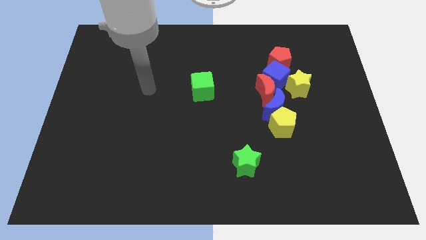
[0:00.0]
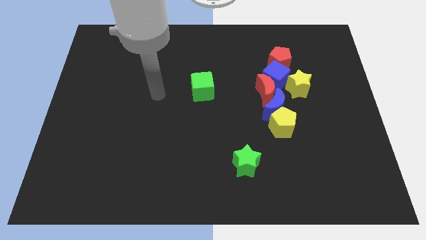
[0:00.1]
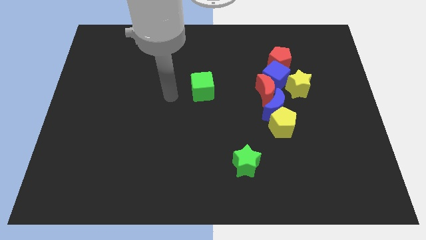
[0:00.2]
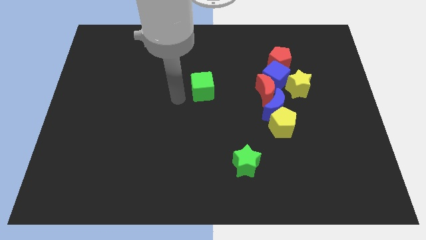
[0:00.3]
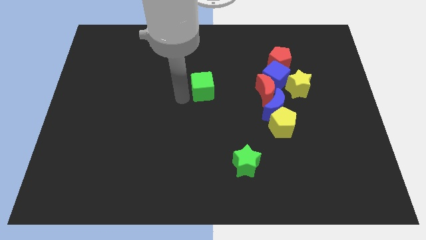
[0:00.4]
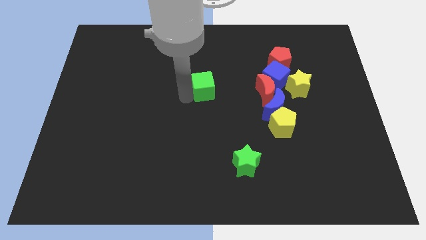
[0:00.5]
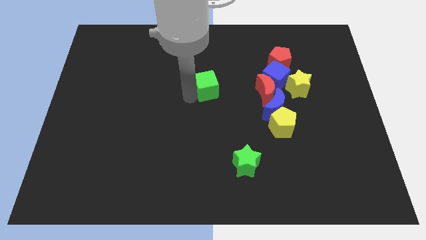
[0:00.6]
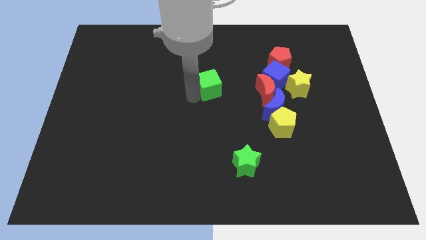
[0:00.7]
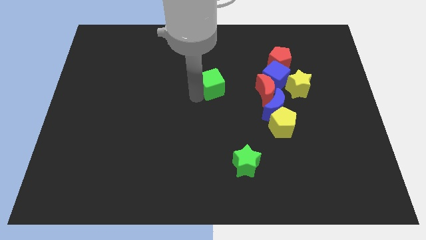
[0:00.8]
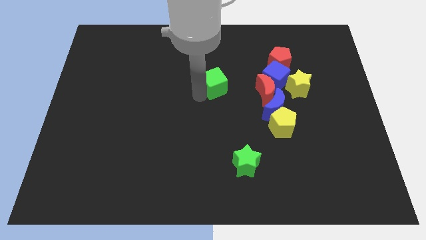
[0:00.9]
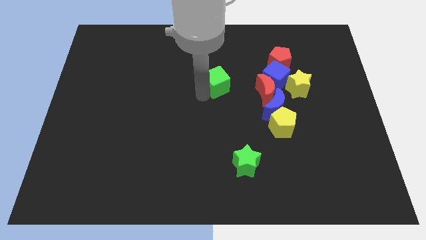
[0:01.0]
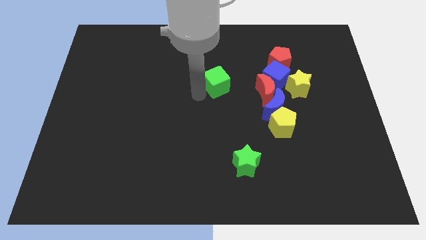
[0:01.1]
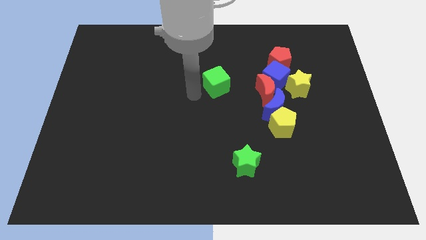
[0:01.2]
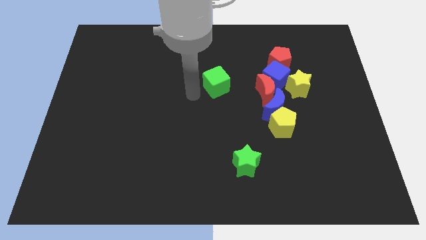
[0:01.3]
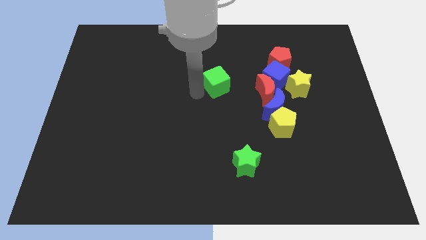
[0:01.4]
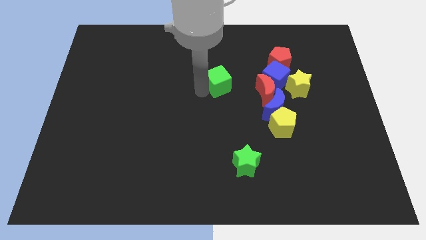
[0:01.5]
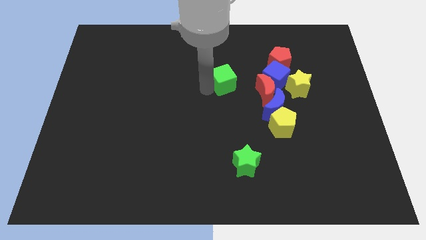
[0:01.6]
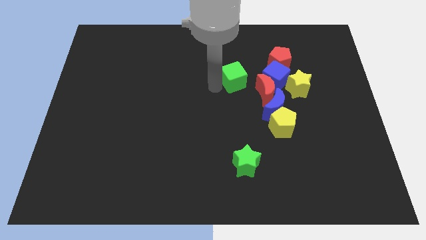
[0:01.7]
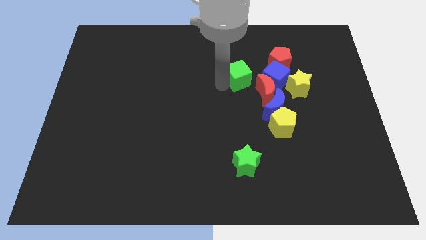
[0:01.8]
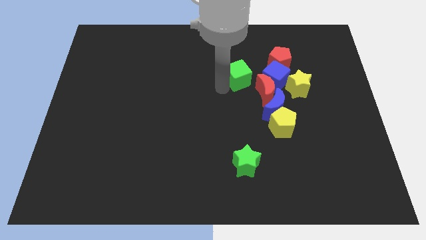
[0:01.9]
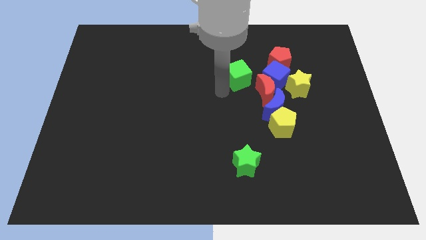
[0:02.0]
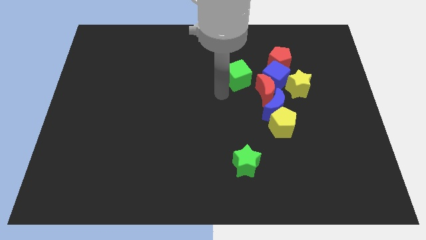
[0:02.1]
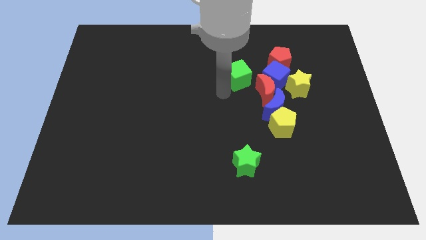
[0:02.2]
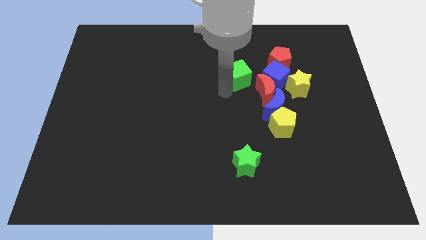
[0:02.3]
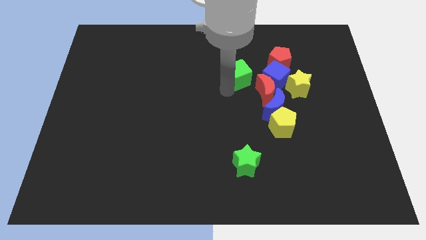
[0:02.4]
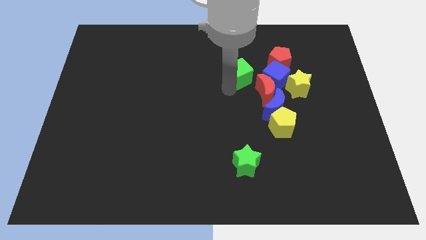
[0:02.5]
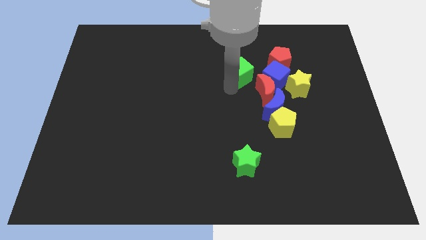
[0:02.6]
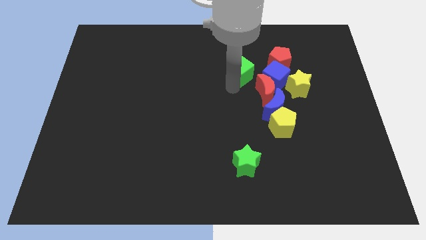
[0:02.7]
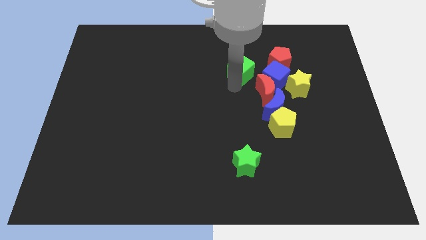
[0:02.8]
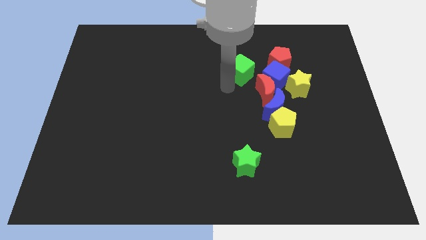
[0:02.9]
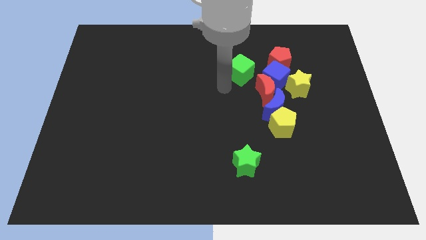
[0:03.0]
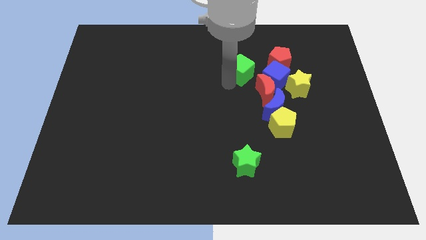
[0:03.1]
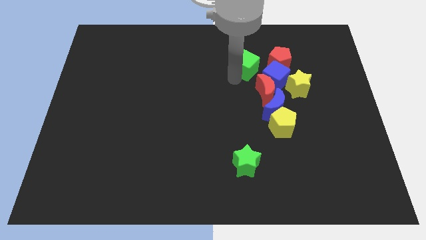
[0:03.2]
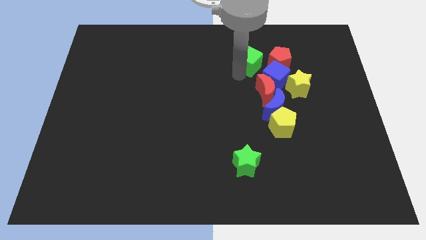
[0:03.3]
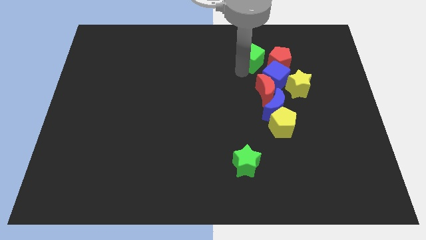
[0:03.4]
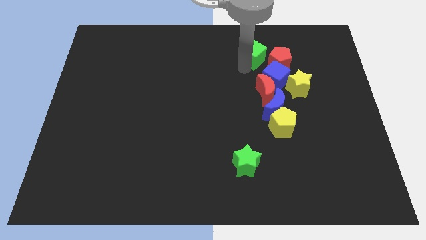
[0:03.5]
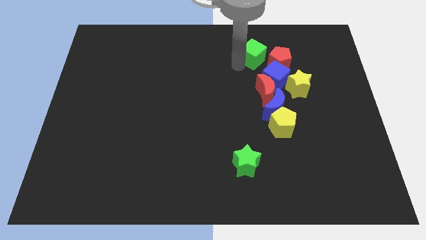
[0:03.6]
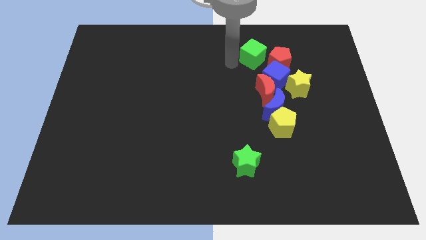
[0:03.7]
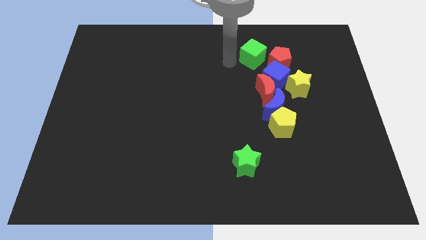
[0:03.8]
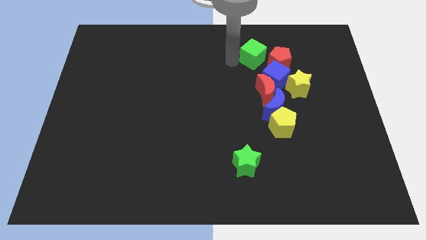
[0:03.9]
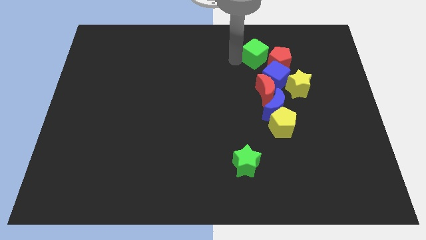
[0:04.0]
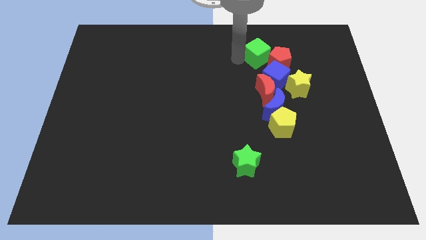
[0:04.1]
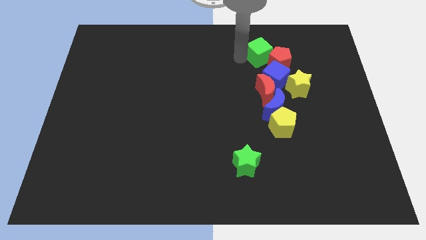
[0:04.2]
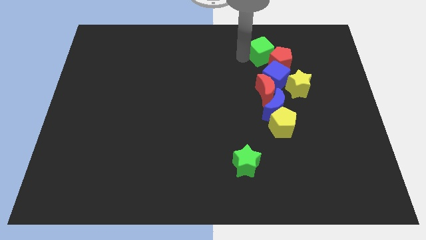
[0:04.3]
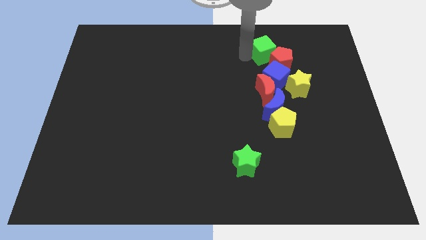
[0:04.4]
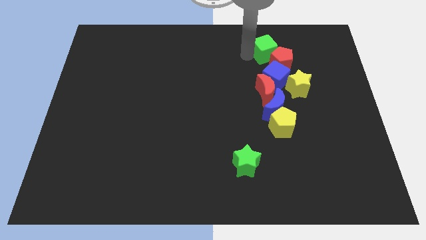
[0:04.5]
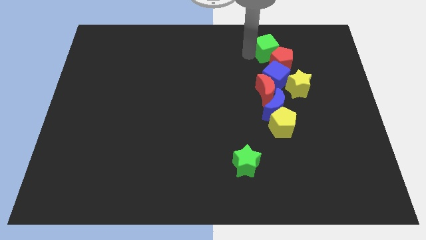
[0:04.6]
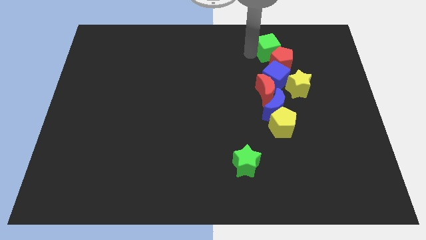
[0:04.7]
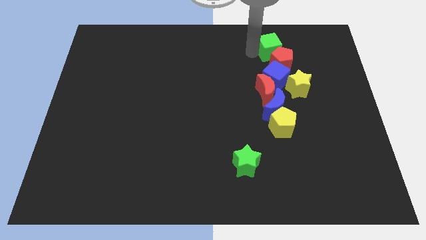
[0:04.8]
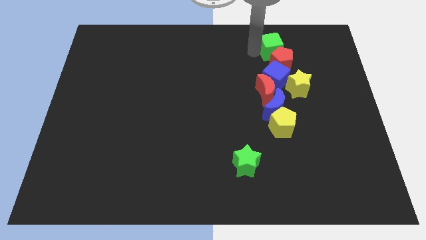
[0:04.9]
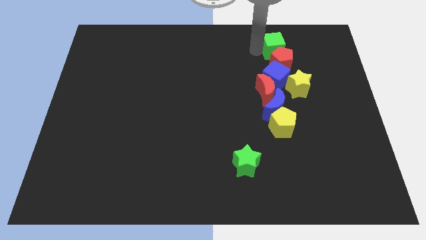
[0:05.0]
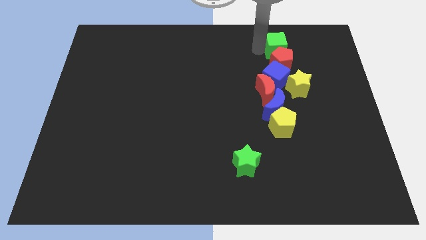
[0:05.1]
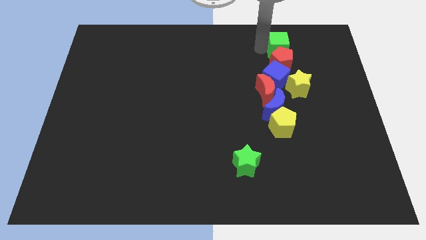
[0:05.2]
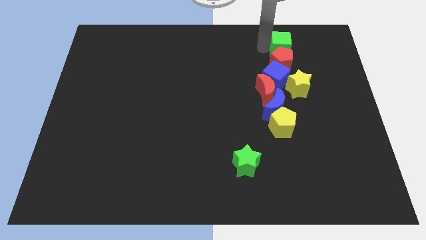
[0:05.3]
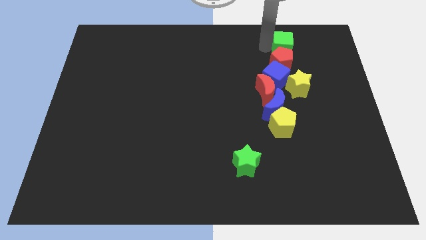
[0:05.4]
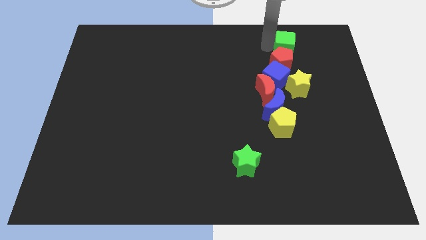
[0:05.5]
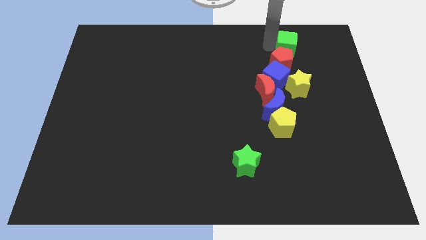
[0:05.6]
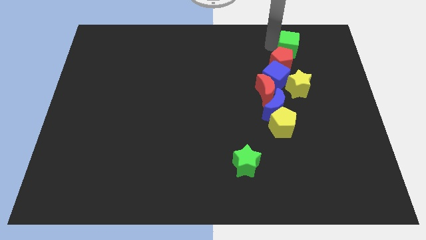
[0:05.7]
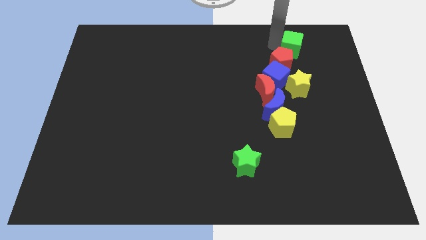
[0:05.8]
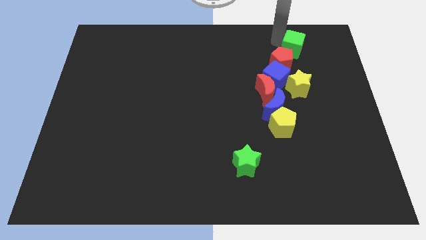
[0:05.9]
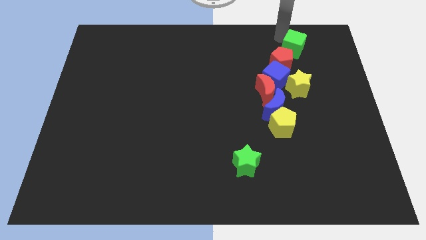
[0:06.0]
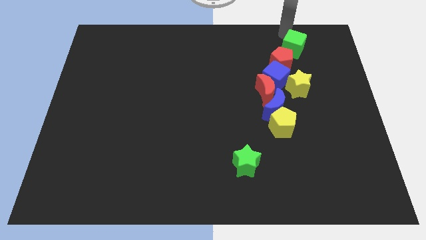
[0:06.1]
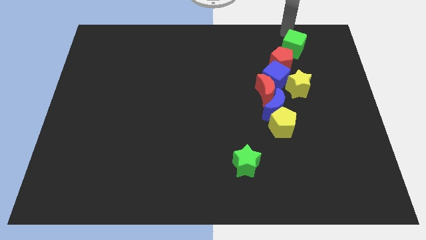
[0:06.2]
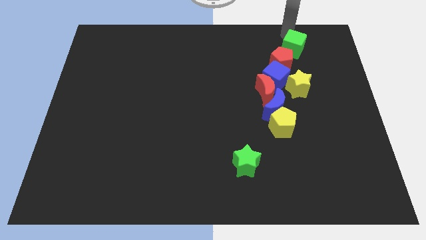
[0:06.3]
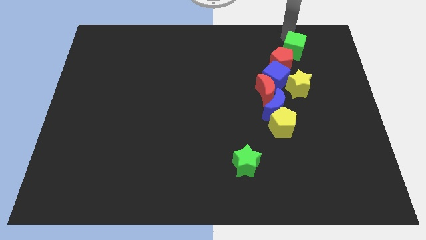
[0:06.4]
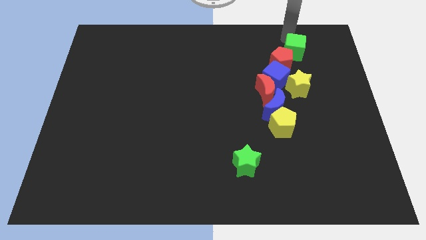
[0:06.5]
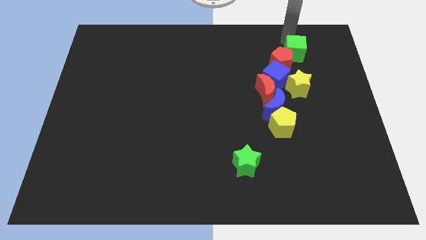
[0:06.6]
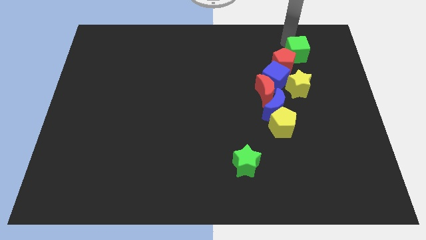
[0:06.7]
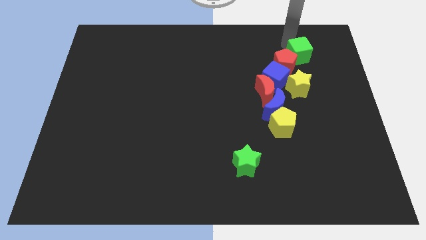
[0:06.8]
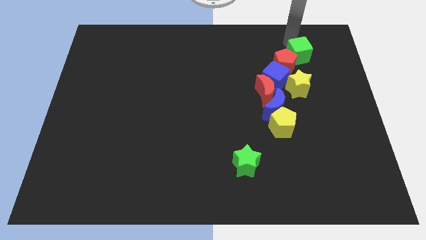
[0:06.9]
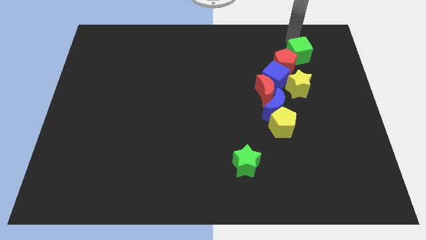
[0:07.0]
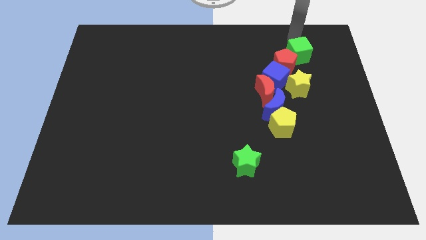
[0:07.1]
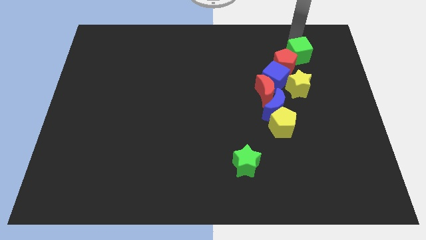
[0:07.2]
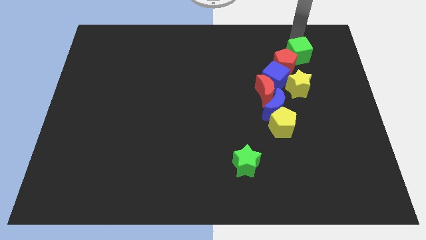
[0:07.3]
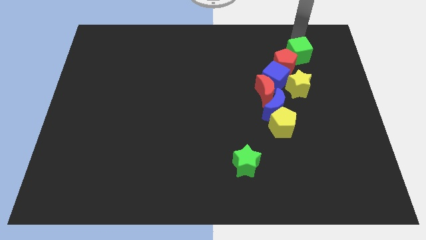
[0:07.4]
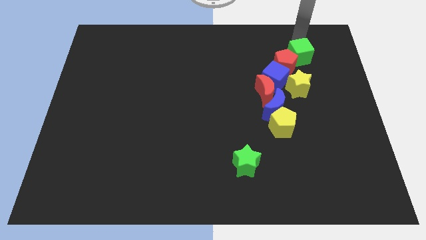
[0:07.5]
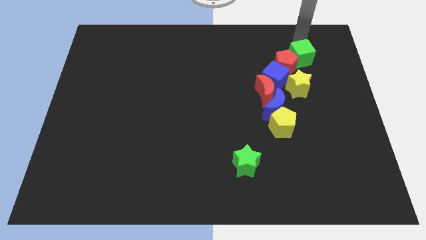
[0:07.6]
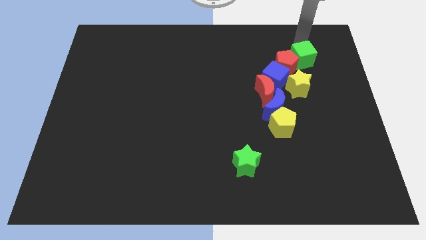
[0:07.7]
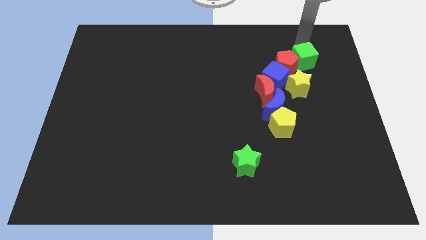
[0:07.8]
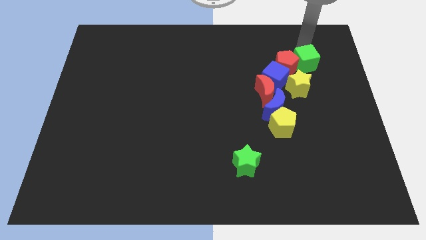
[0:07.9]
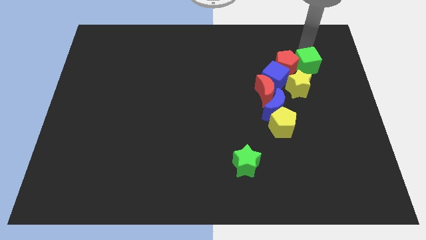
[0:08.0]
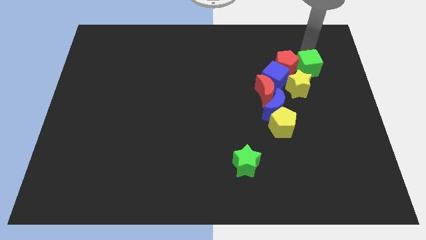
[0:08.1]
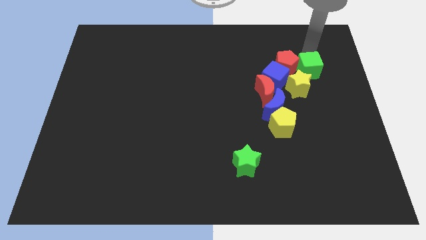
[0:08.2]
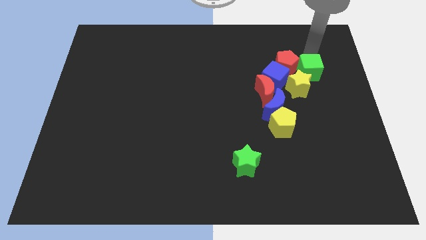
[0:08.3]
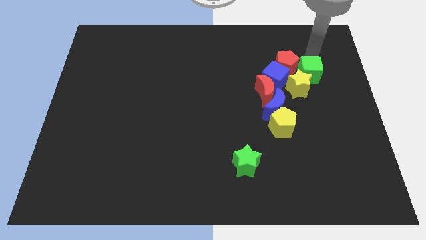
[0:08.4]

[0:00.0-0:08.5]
put the green cube towards the yellow star
